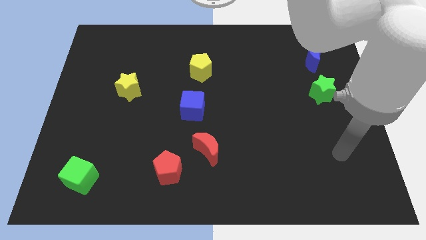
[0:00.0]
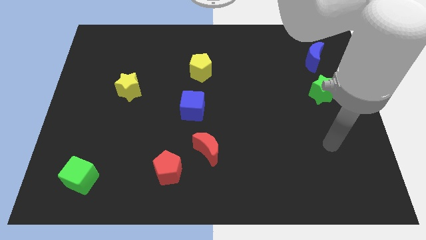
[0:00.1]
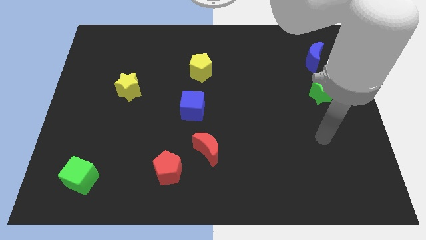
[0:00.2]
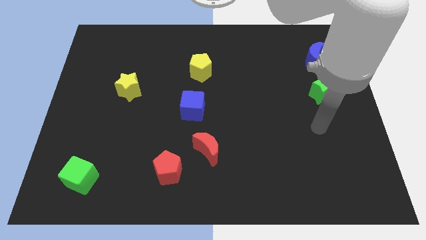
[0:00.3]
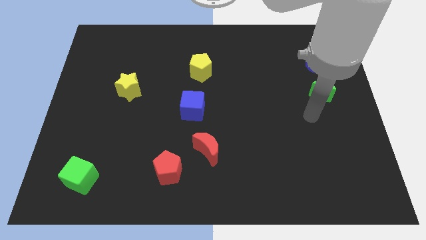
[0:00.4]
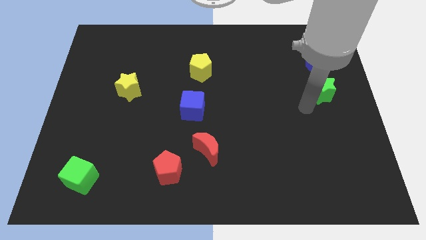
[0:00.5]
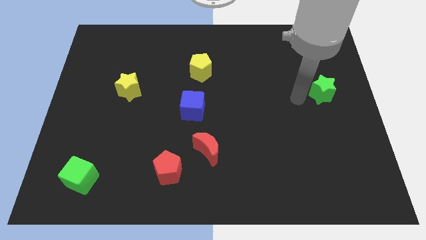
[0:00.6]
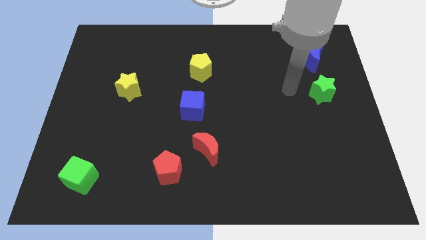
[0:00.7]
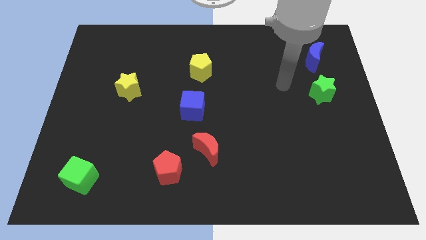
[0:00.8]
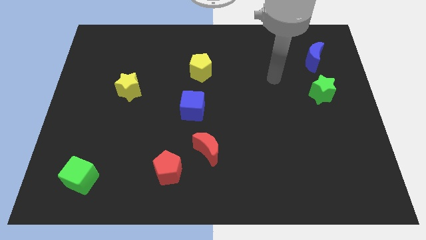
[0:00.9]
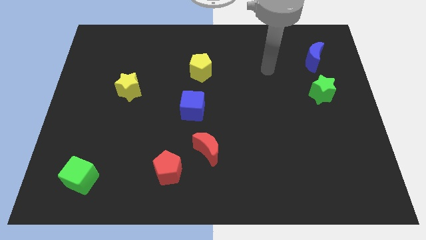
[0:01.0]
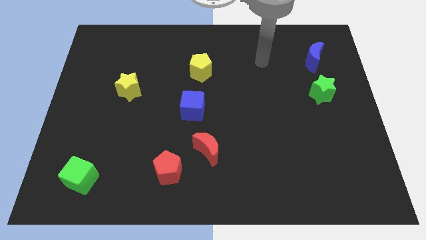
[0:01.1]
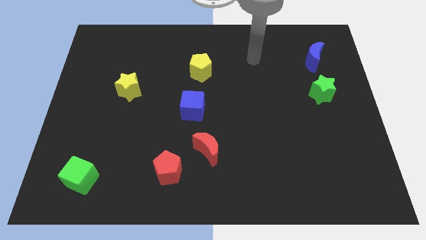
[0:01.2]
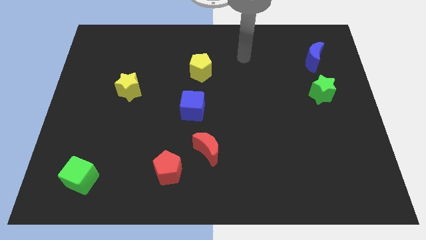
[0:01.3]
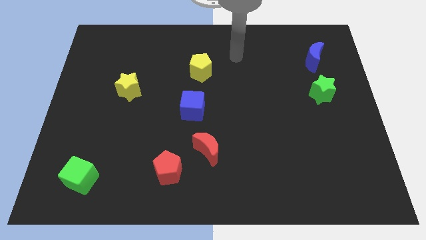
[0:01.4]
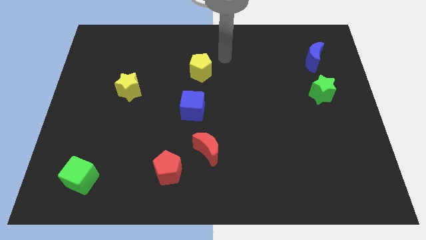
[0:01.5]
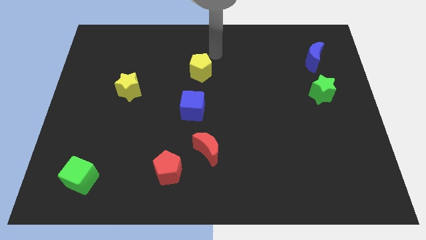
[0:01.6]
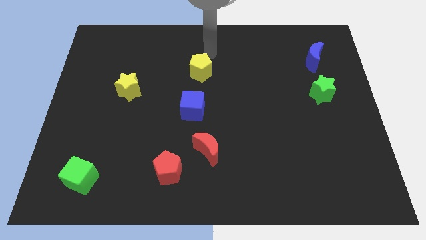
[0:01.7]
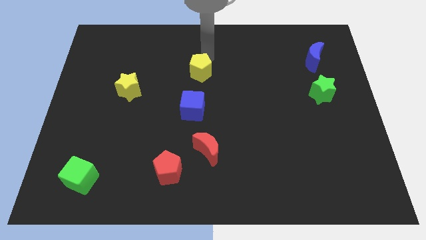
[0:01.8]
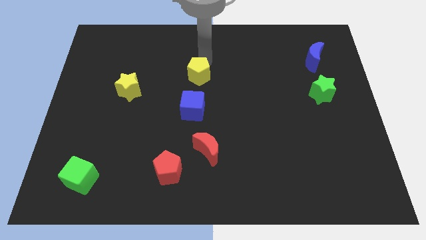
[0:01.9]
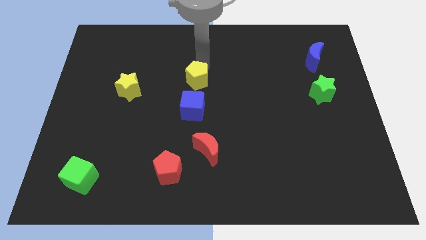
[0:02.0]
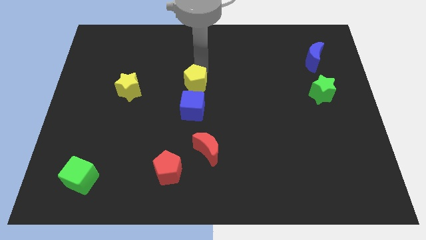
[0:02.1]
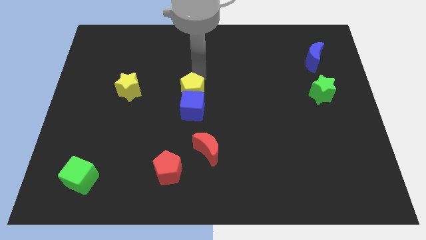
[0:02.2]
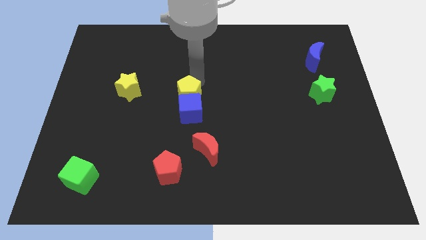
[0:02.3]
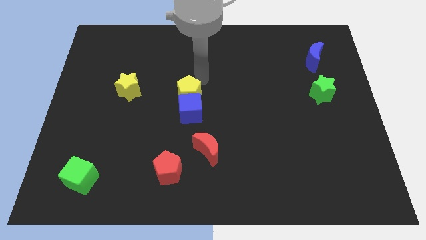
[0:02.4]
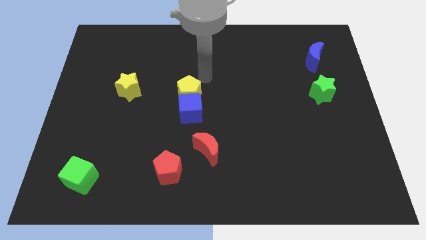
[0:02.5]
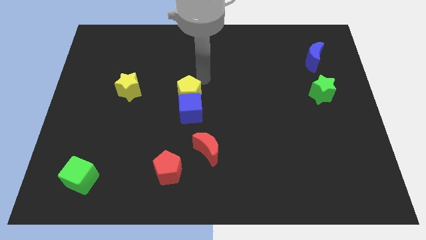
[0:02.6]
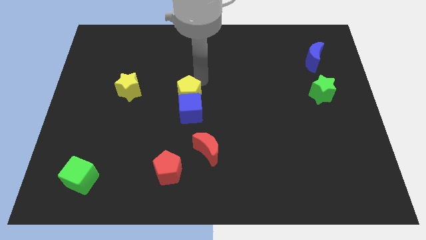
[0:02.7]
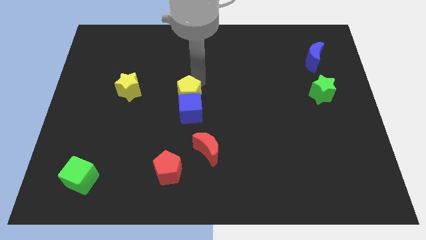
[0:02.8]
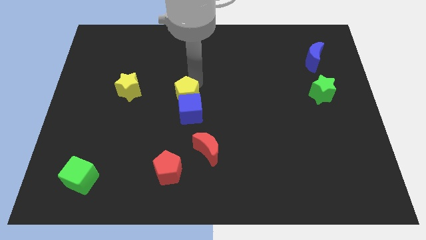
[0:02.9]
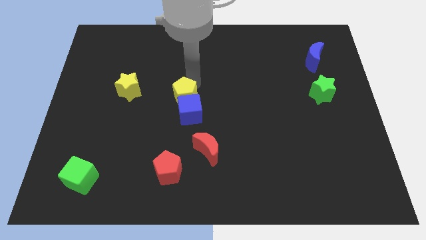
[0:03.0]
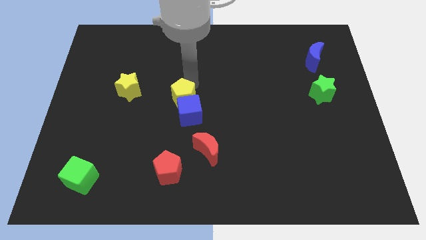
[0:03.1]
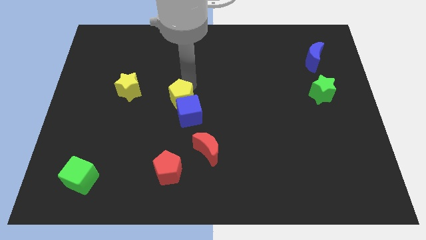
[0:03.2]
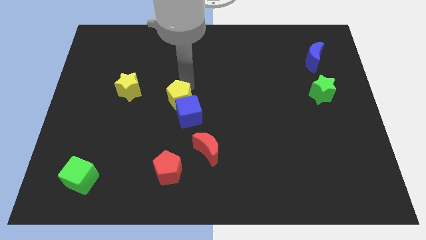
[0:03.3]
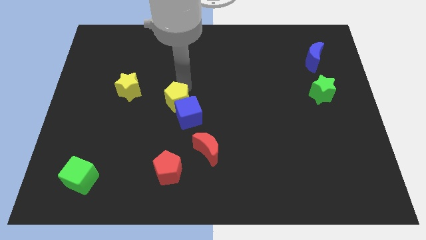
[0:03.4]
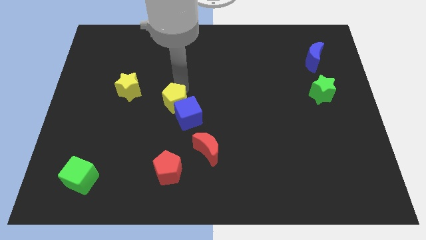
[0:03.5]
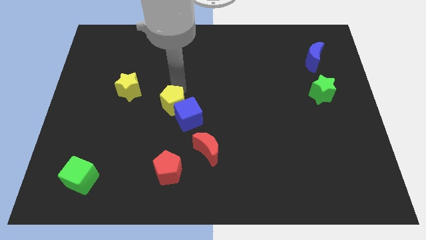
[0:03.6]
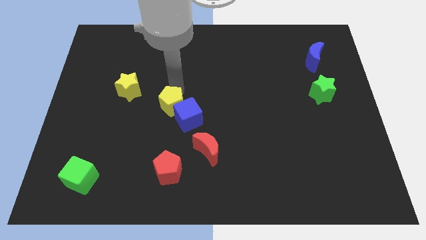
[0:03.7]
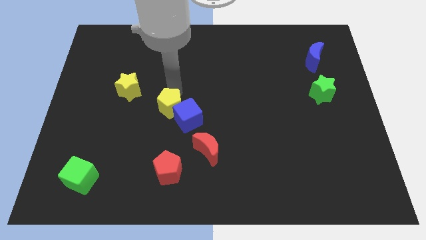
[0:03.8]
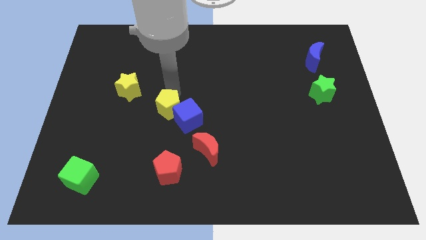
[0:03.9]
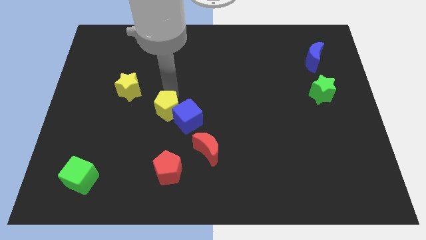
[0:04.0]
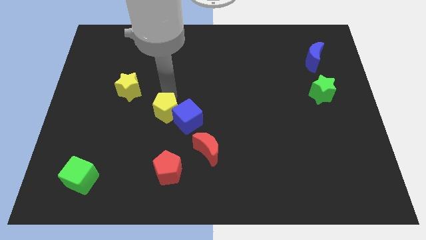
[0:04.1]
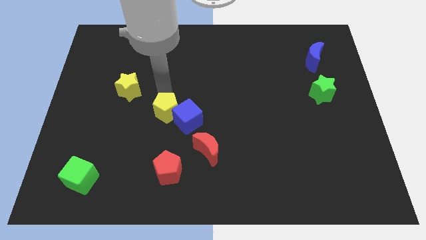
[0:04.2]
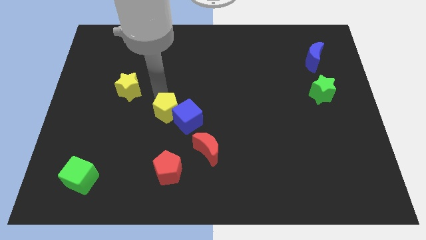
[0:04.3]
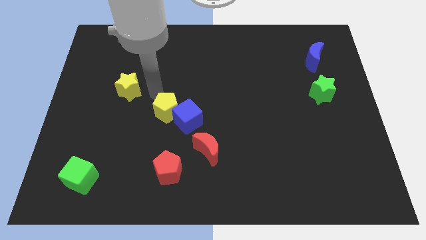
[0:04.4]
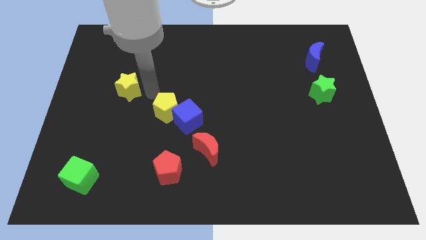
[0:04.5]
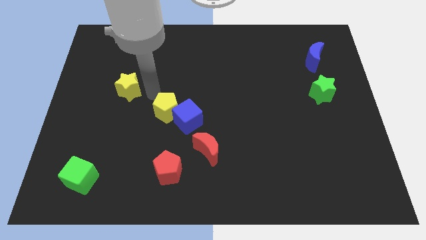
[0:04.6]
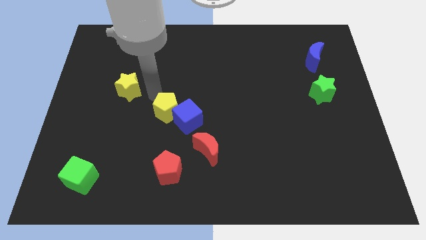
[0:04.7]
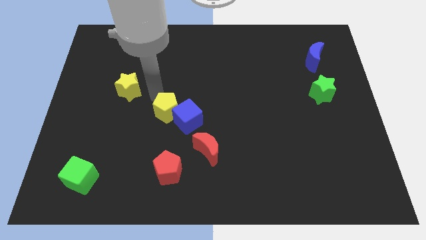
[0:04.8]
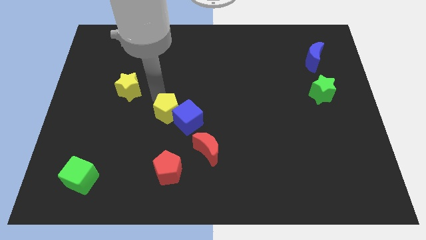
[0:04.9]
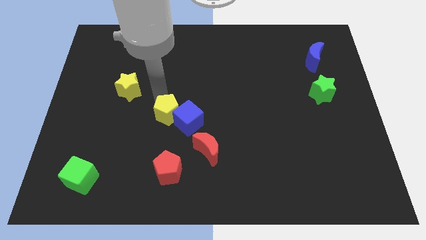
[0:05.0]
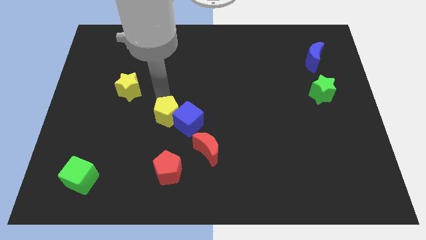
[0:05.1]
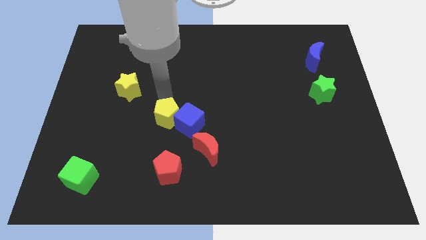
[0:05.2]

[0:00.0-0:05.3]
put the yellow pentagon to the top left of the red moon

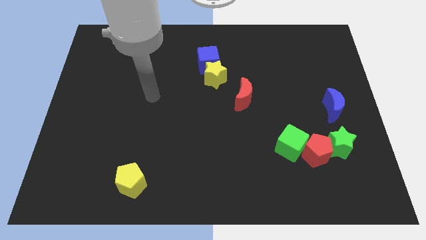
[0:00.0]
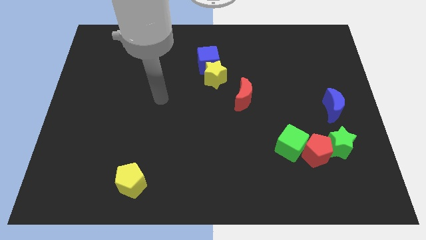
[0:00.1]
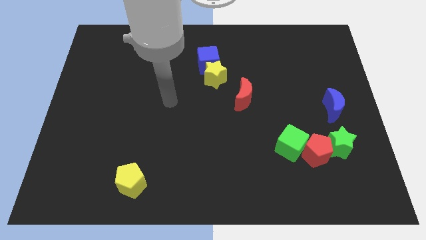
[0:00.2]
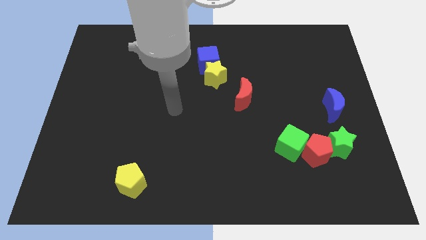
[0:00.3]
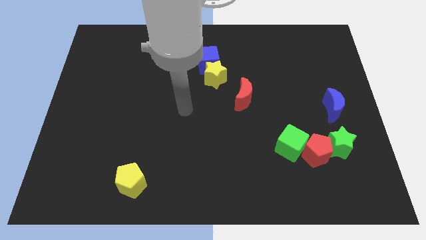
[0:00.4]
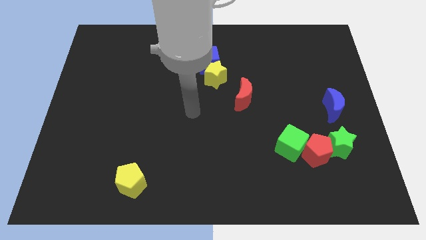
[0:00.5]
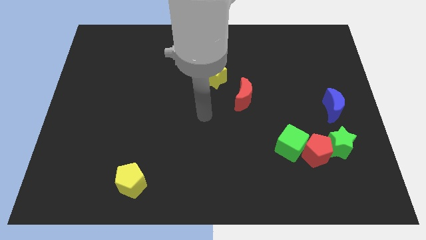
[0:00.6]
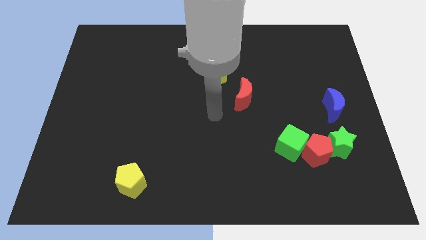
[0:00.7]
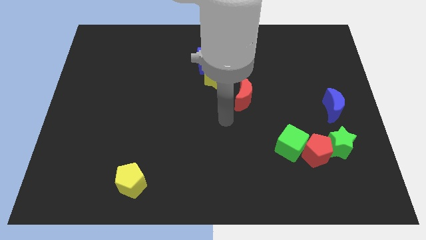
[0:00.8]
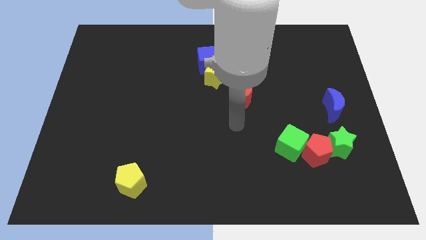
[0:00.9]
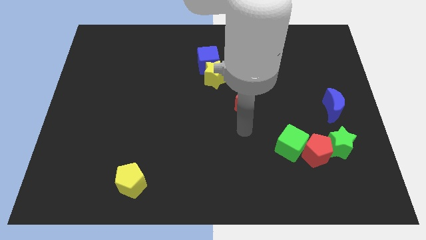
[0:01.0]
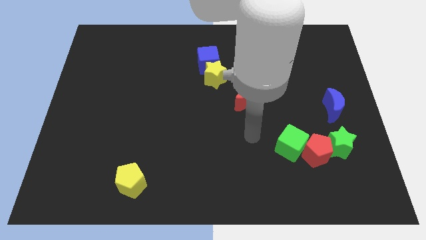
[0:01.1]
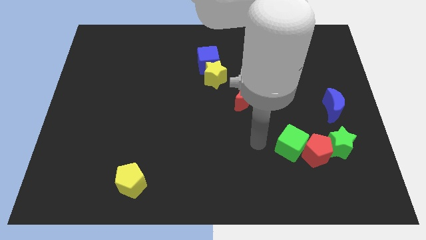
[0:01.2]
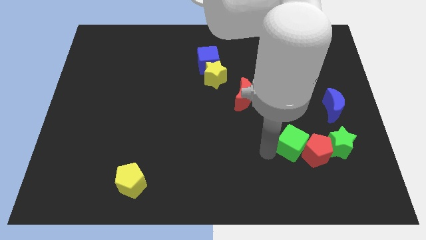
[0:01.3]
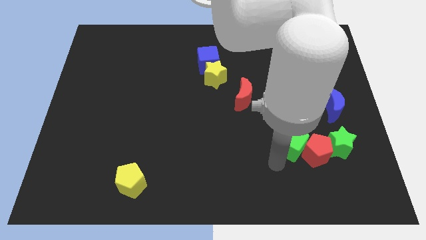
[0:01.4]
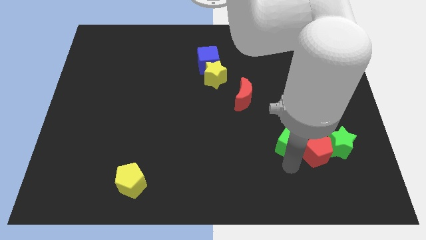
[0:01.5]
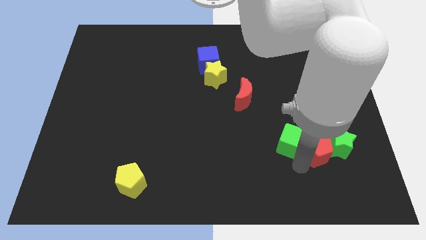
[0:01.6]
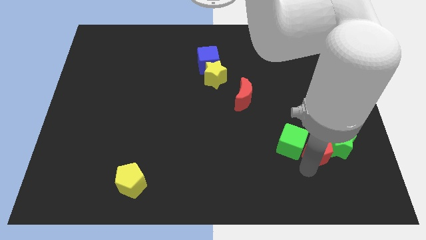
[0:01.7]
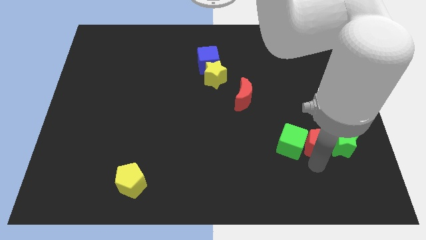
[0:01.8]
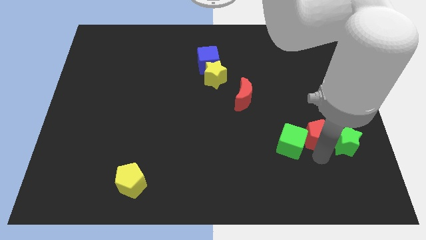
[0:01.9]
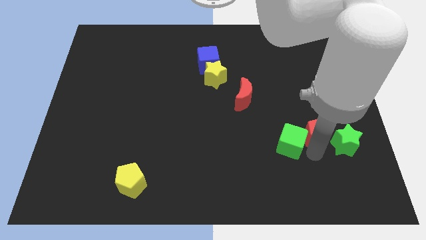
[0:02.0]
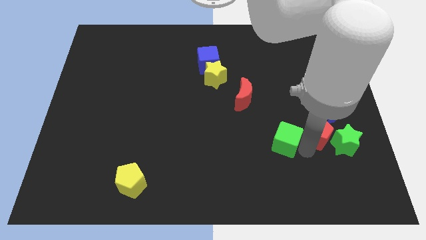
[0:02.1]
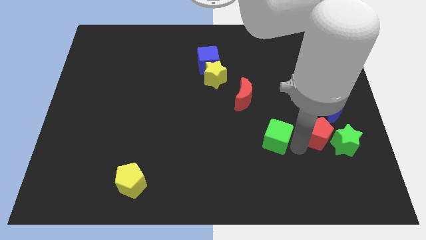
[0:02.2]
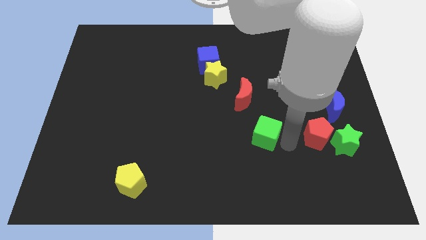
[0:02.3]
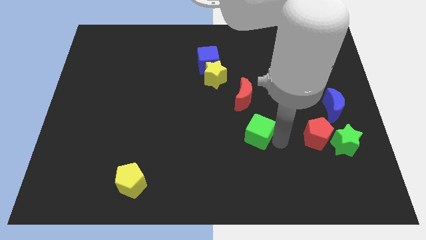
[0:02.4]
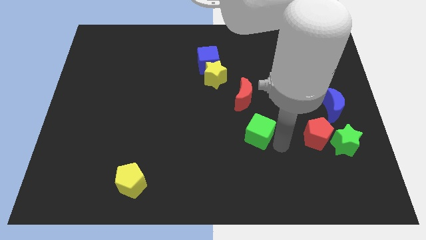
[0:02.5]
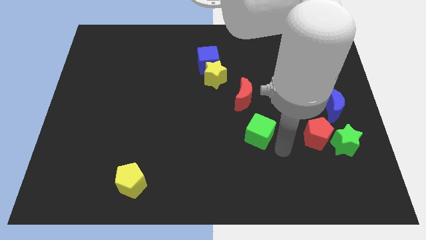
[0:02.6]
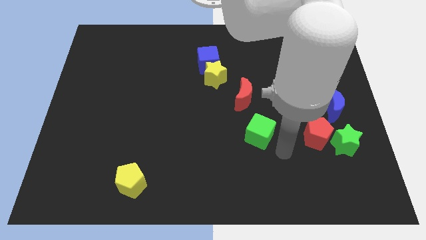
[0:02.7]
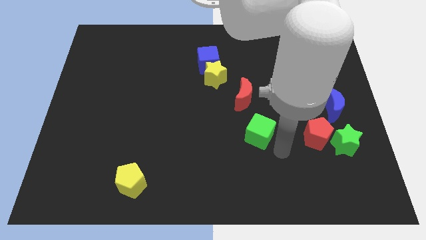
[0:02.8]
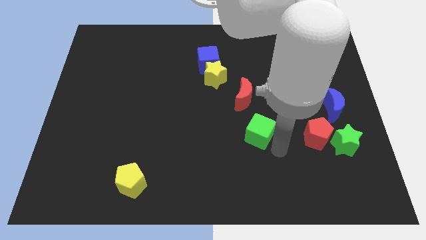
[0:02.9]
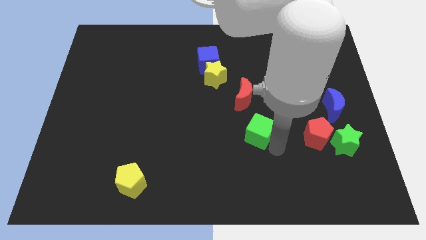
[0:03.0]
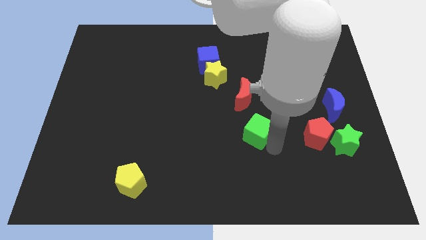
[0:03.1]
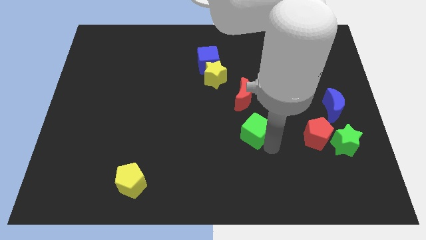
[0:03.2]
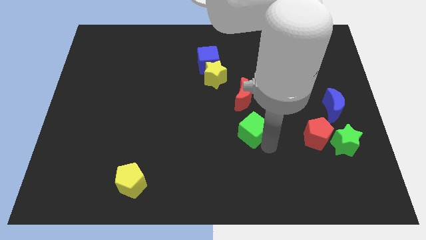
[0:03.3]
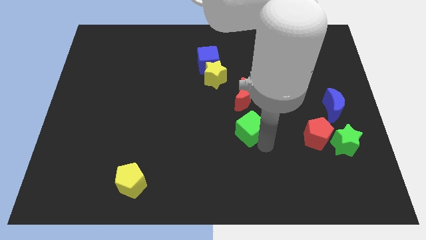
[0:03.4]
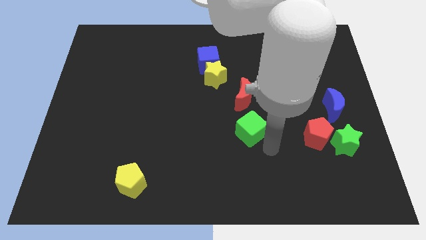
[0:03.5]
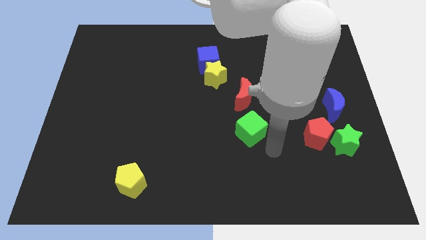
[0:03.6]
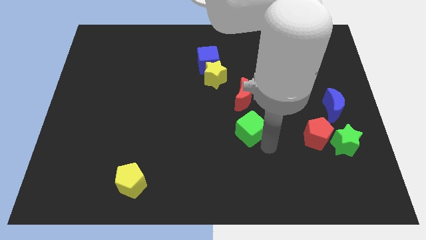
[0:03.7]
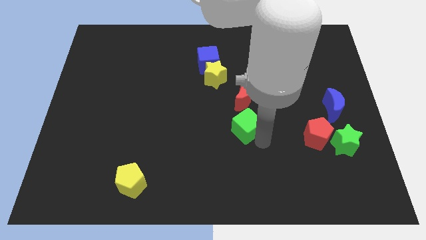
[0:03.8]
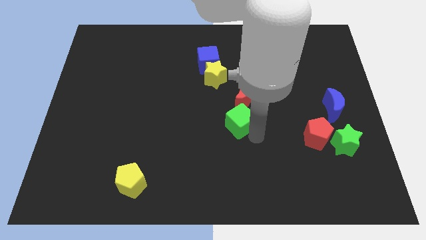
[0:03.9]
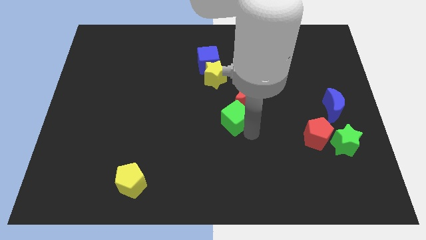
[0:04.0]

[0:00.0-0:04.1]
move the green cube to the bottom side of the yellow star
